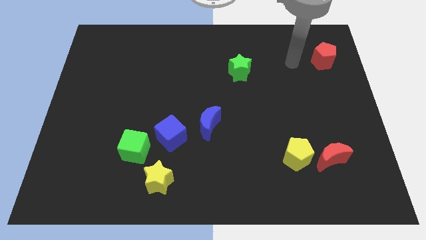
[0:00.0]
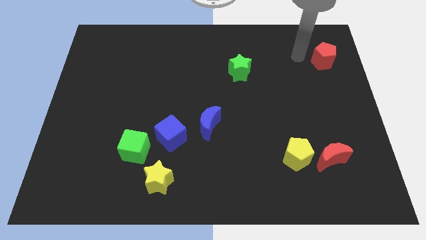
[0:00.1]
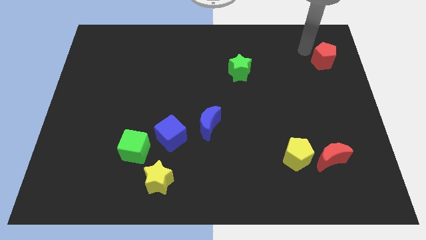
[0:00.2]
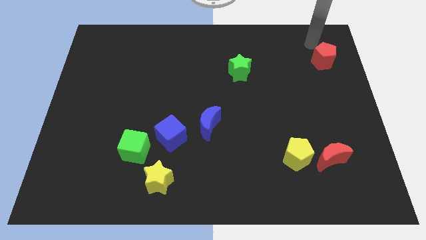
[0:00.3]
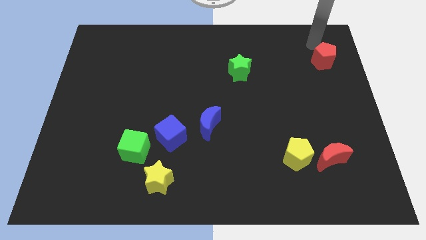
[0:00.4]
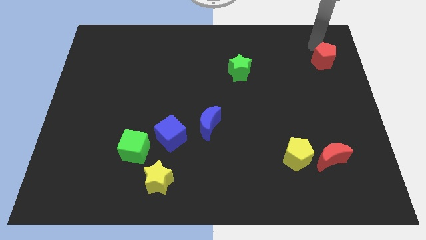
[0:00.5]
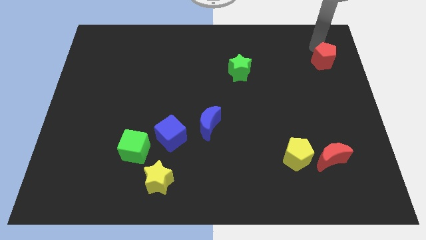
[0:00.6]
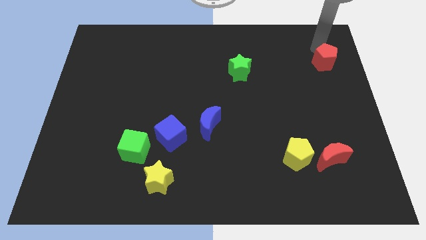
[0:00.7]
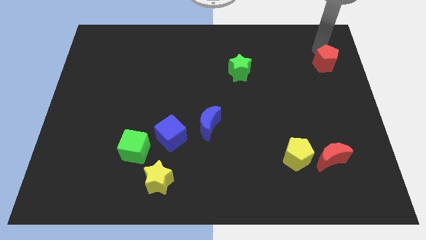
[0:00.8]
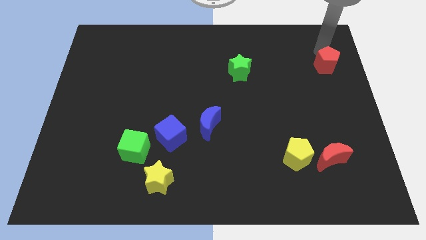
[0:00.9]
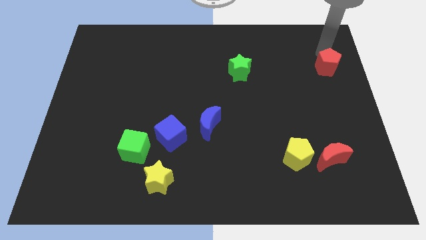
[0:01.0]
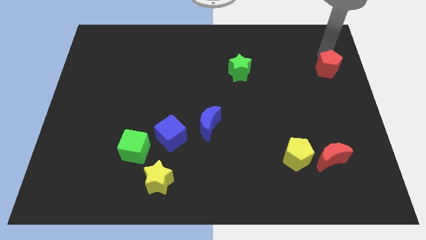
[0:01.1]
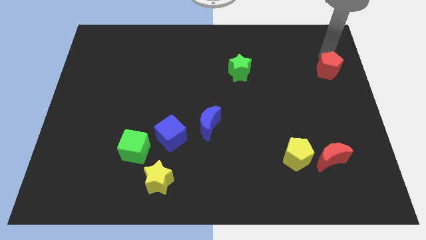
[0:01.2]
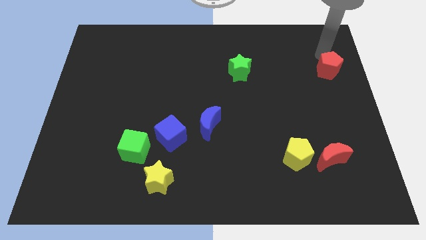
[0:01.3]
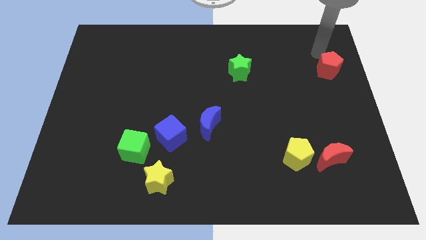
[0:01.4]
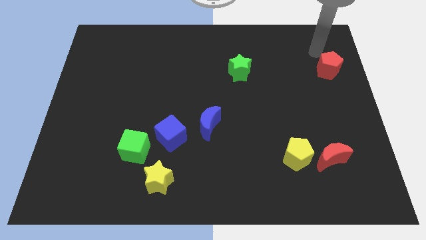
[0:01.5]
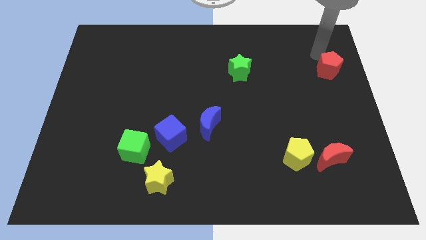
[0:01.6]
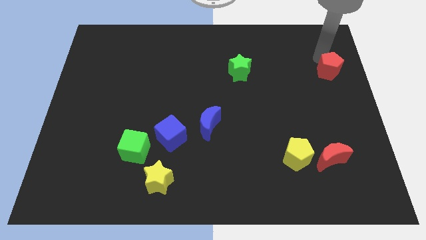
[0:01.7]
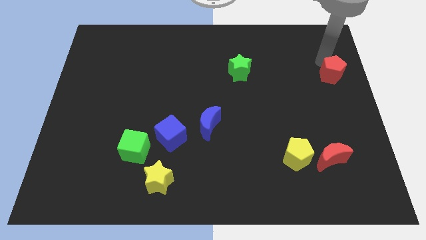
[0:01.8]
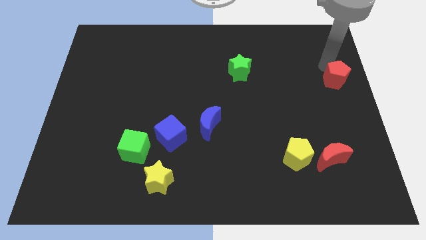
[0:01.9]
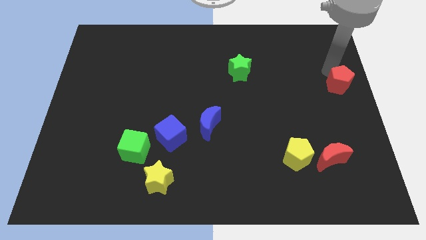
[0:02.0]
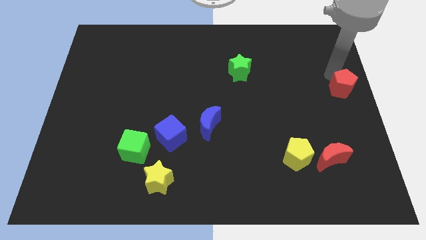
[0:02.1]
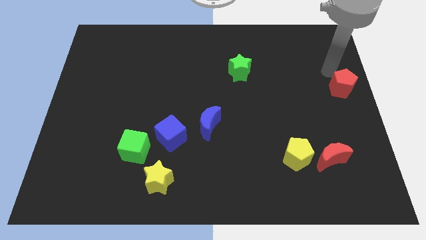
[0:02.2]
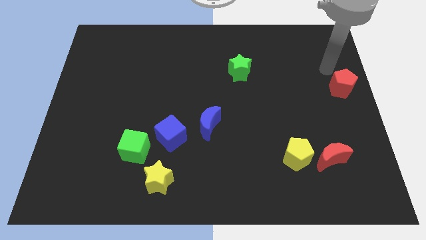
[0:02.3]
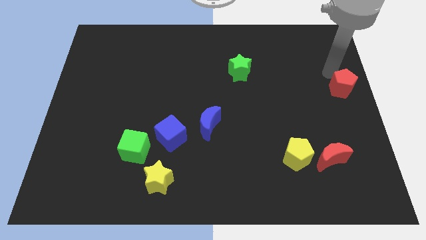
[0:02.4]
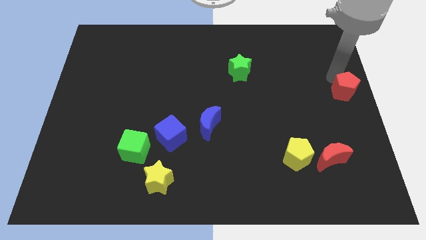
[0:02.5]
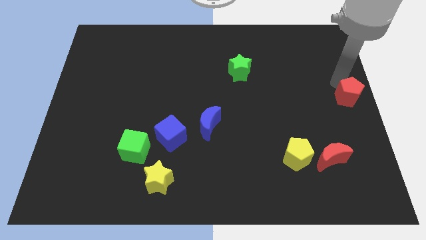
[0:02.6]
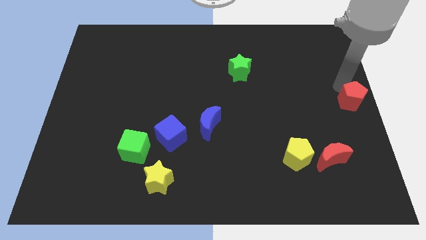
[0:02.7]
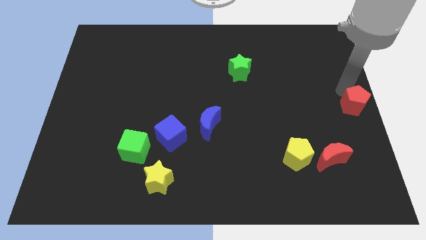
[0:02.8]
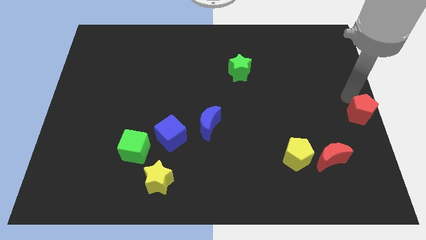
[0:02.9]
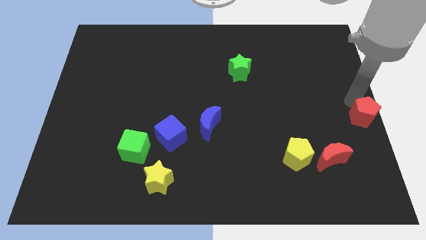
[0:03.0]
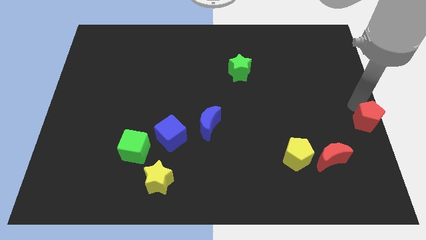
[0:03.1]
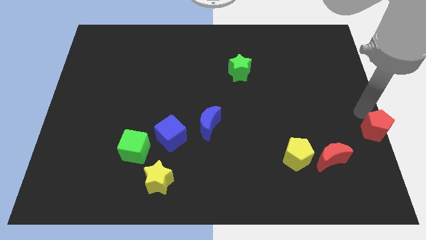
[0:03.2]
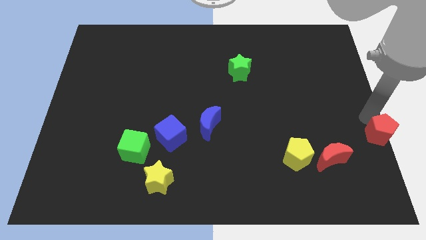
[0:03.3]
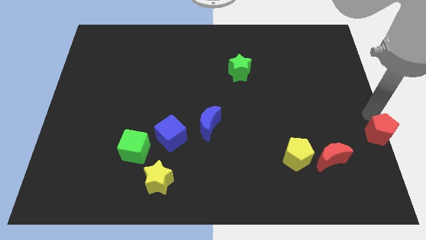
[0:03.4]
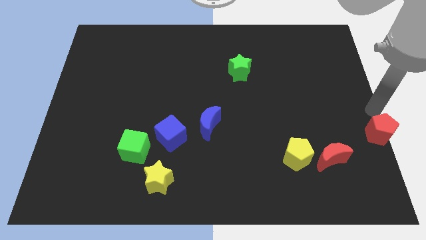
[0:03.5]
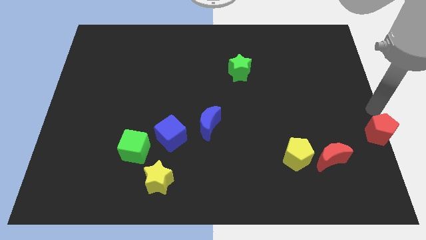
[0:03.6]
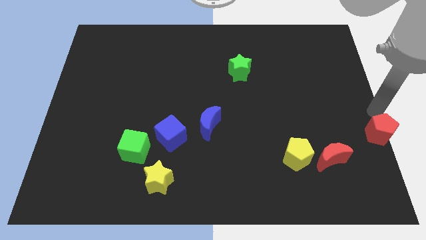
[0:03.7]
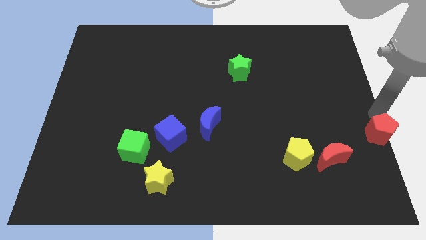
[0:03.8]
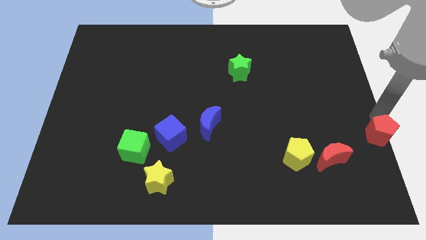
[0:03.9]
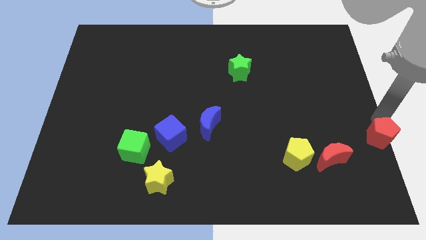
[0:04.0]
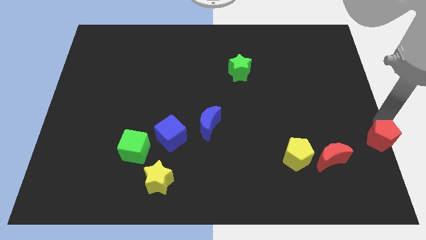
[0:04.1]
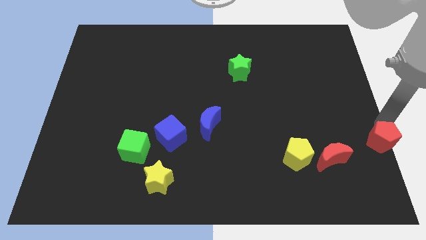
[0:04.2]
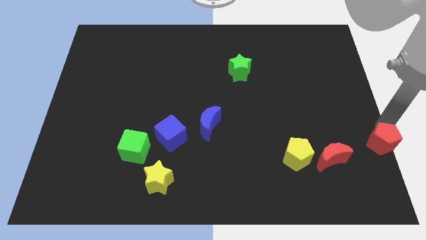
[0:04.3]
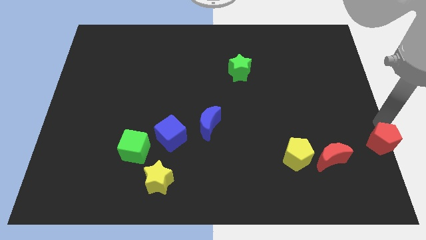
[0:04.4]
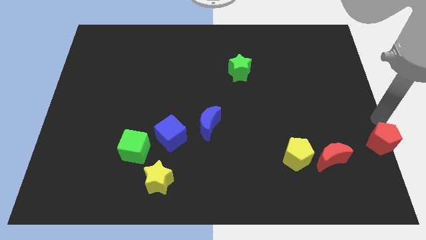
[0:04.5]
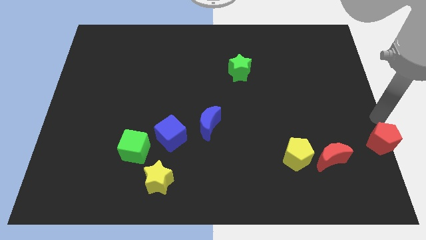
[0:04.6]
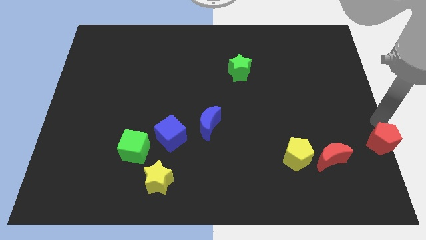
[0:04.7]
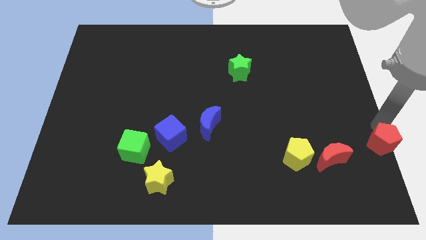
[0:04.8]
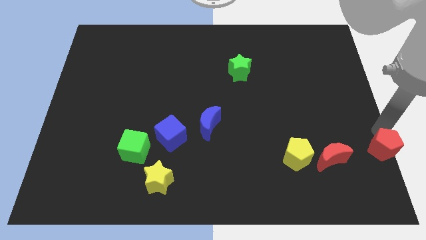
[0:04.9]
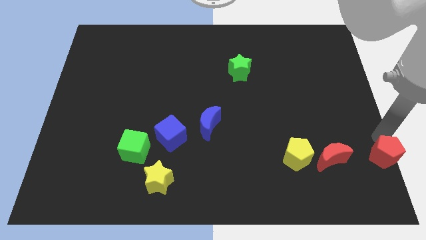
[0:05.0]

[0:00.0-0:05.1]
slide the red pentagon to the bottom right corner

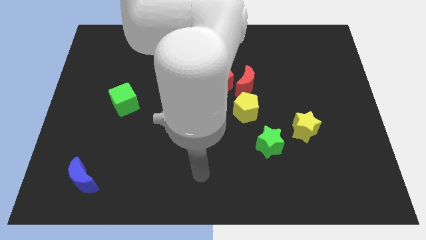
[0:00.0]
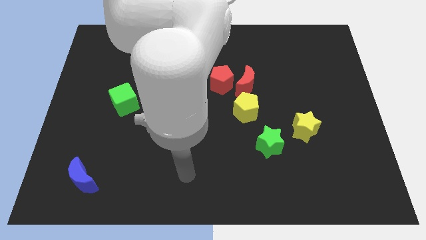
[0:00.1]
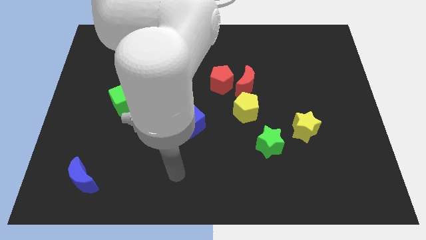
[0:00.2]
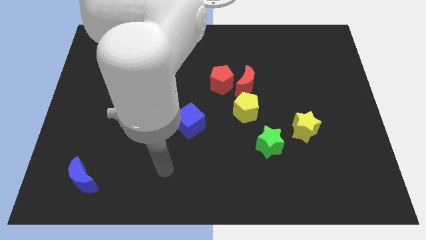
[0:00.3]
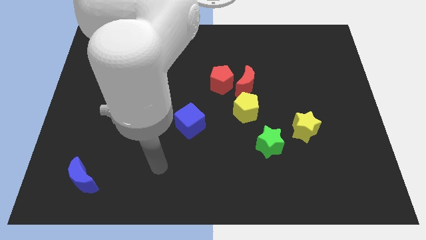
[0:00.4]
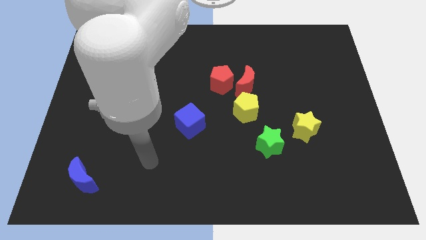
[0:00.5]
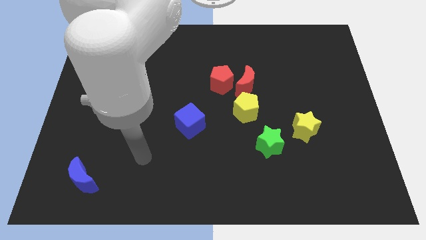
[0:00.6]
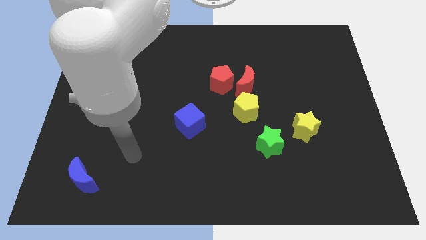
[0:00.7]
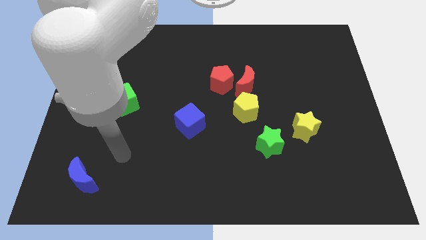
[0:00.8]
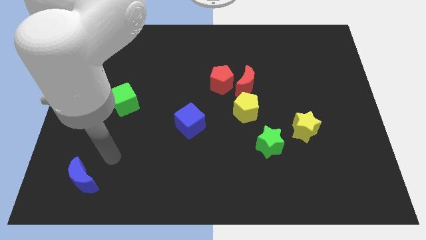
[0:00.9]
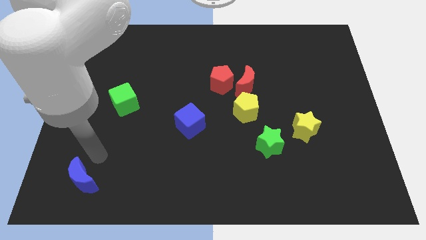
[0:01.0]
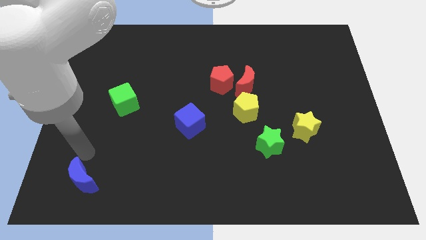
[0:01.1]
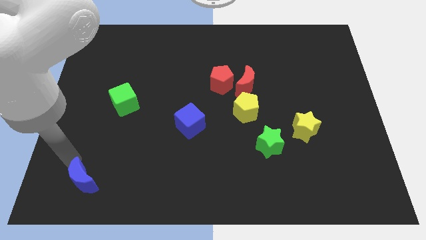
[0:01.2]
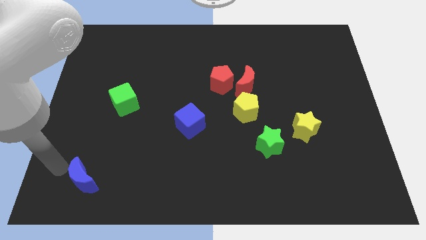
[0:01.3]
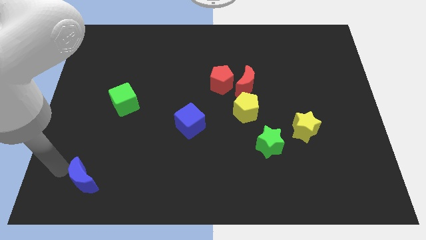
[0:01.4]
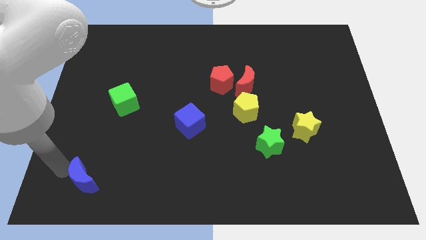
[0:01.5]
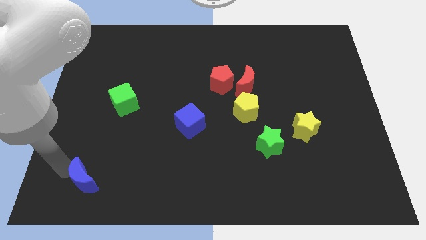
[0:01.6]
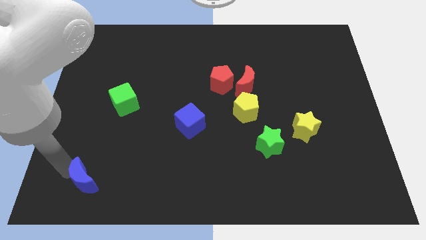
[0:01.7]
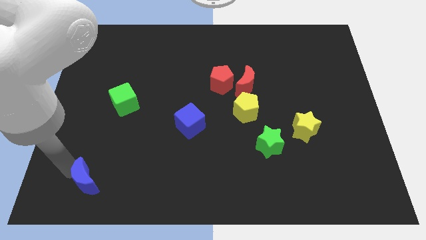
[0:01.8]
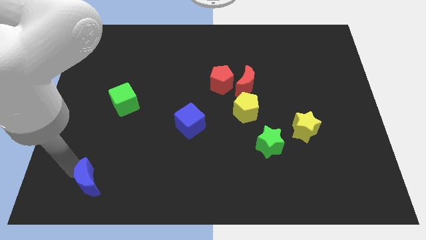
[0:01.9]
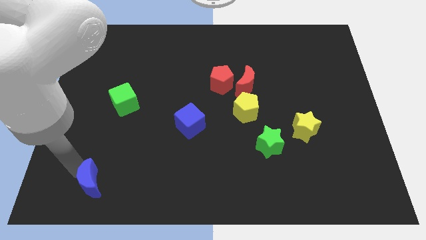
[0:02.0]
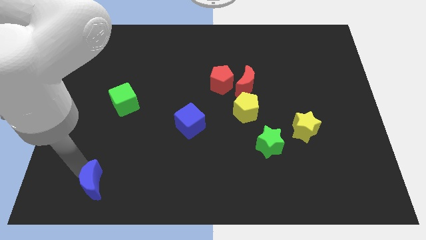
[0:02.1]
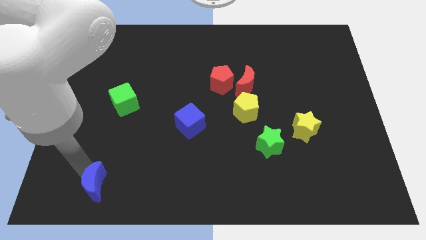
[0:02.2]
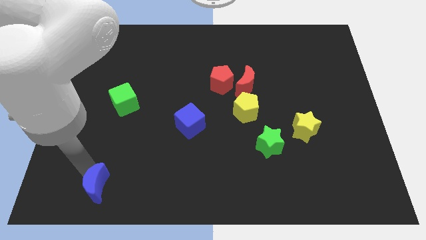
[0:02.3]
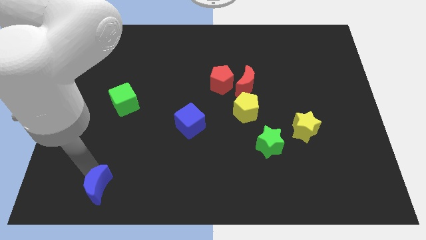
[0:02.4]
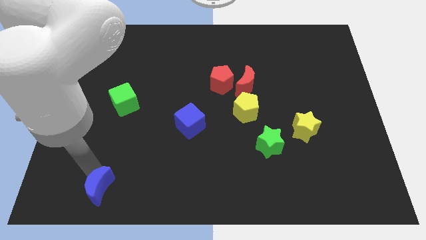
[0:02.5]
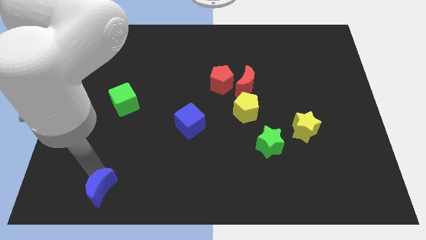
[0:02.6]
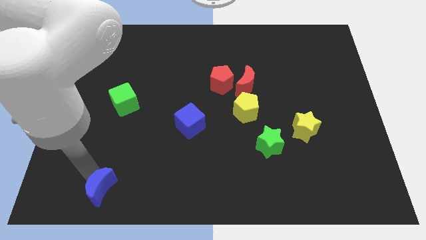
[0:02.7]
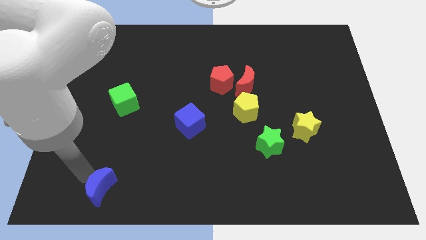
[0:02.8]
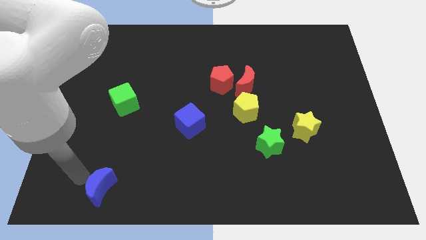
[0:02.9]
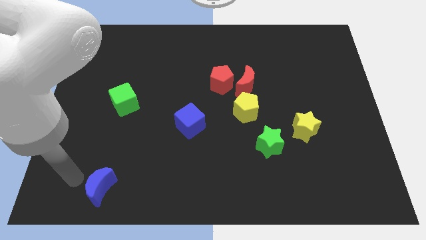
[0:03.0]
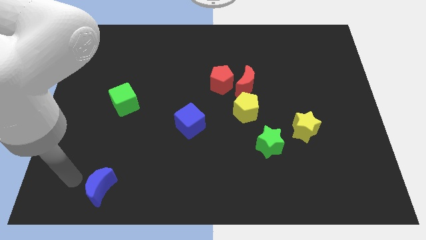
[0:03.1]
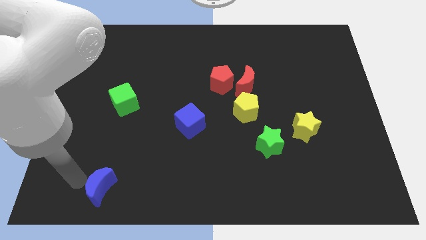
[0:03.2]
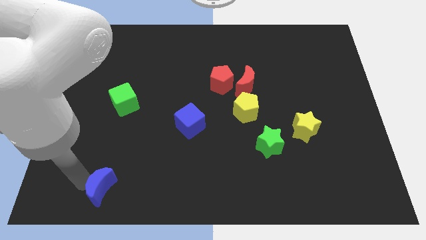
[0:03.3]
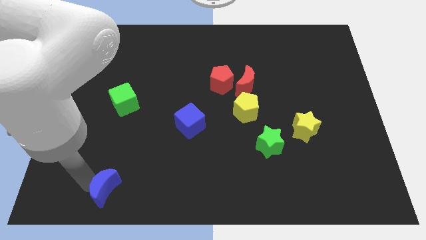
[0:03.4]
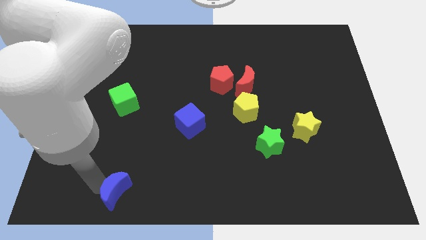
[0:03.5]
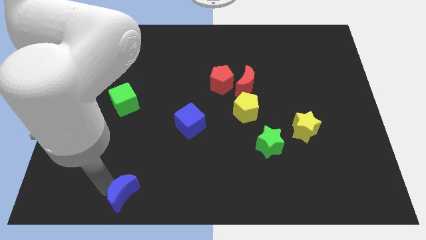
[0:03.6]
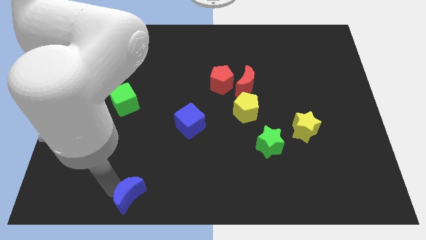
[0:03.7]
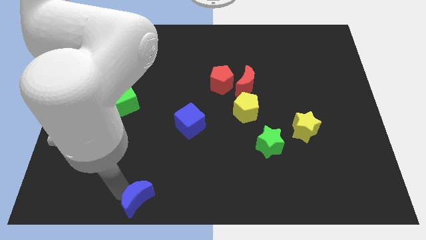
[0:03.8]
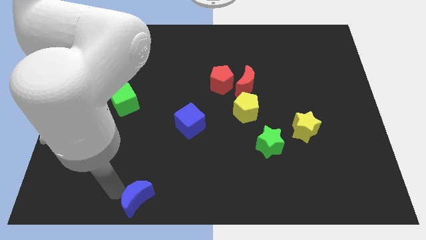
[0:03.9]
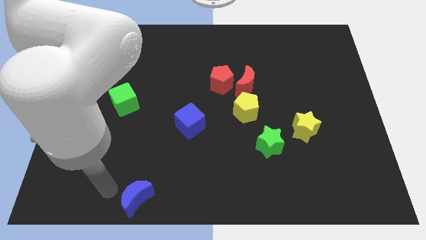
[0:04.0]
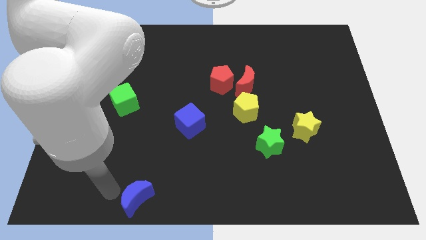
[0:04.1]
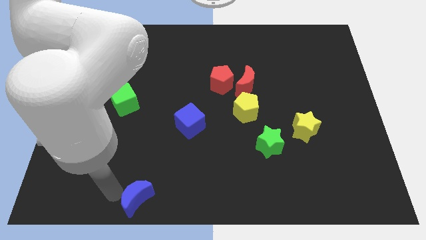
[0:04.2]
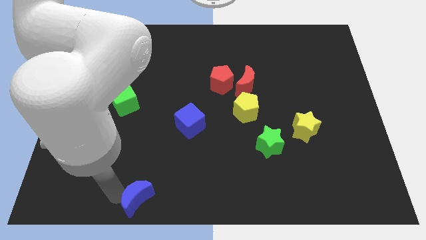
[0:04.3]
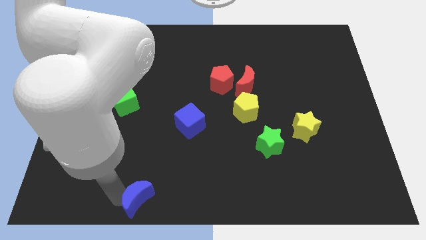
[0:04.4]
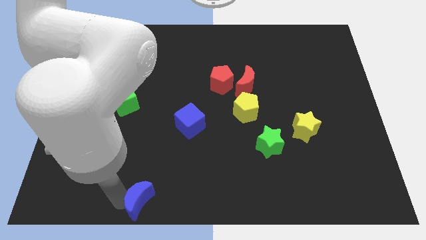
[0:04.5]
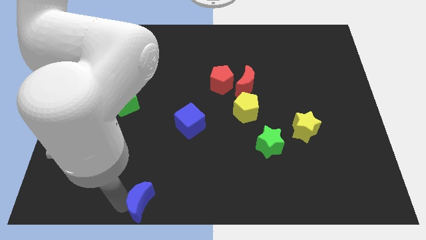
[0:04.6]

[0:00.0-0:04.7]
move the blue moon to the bottom side
